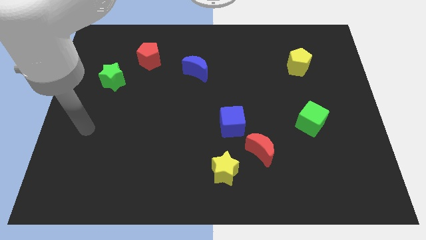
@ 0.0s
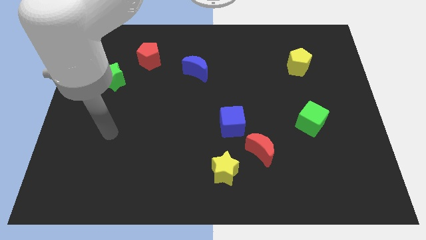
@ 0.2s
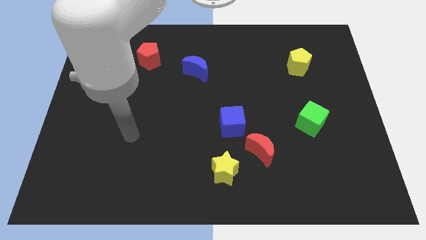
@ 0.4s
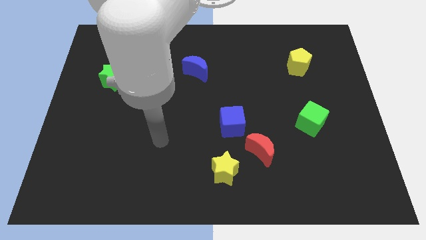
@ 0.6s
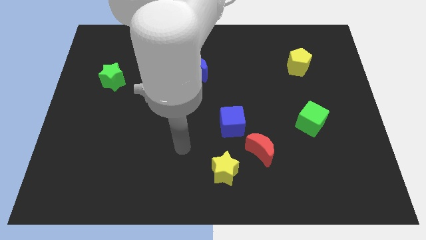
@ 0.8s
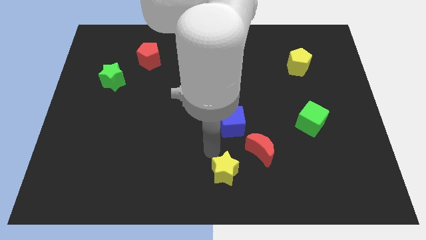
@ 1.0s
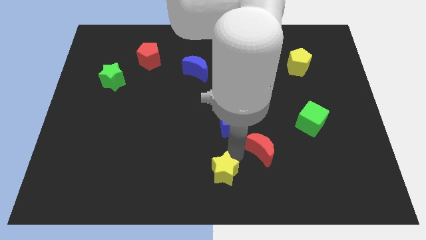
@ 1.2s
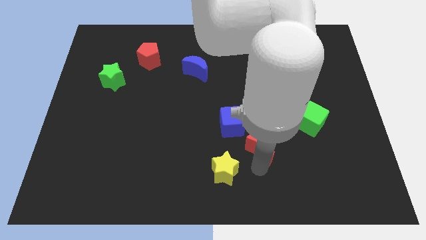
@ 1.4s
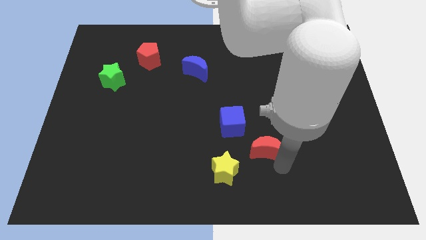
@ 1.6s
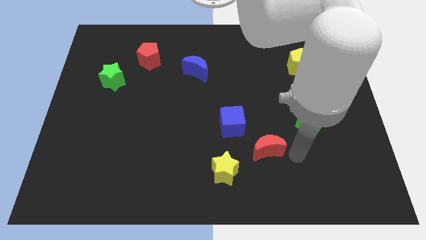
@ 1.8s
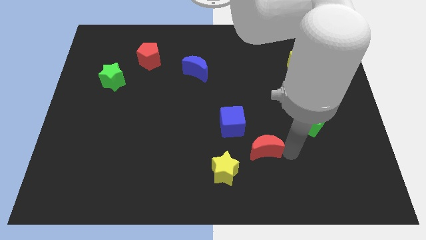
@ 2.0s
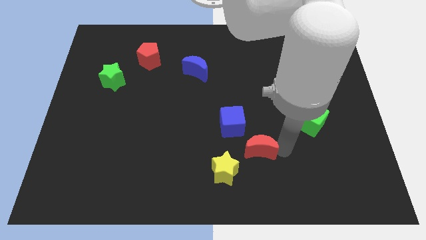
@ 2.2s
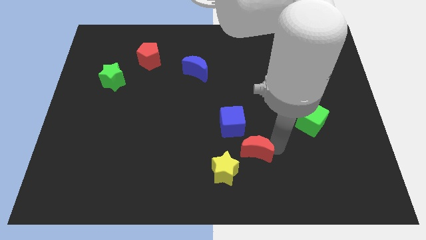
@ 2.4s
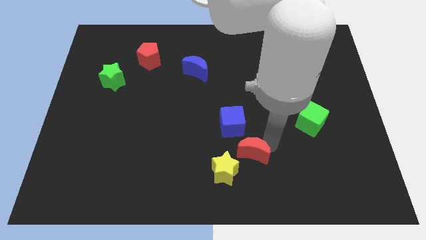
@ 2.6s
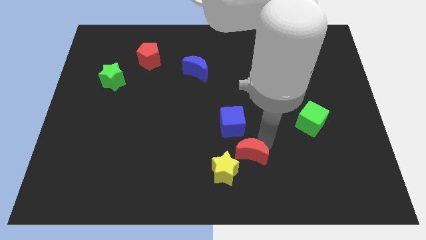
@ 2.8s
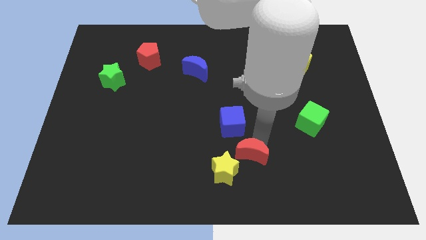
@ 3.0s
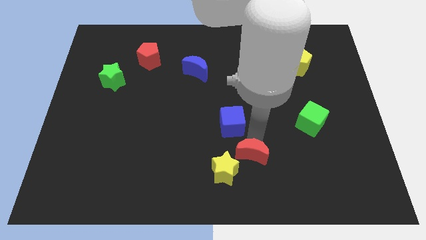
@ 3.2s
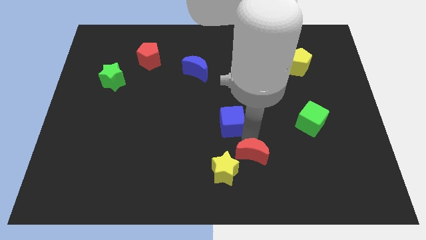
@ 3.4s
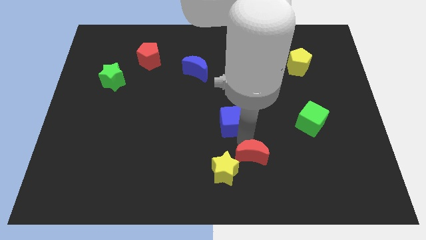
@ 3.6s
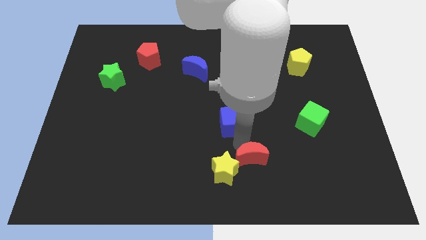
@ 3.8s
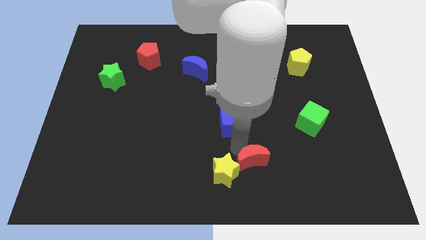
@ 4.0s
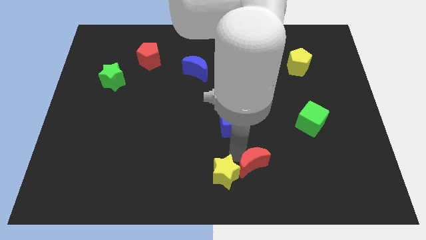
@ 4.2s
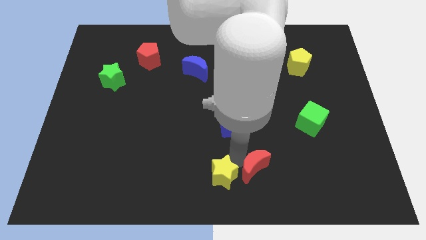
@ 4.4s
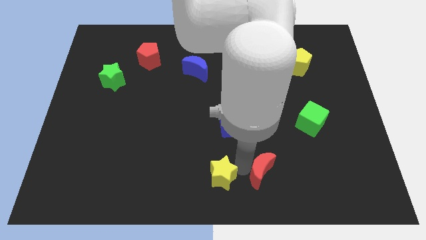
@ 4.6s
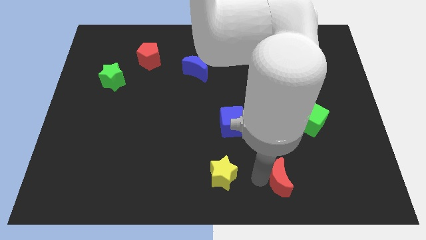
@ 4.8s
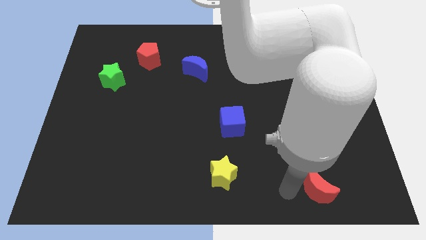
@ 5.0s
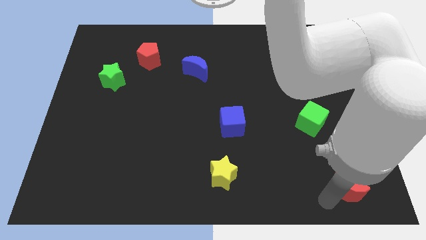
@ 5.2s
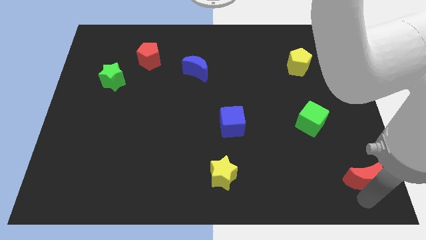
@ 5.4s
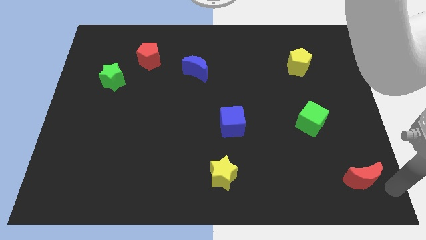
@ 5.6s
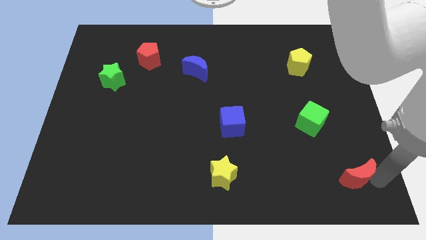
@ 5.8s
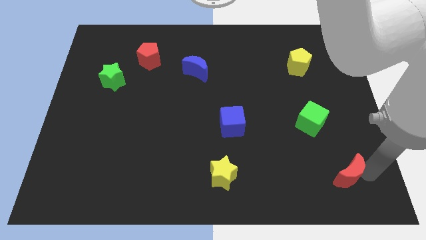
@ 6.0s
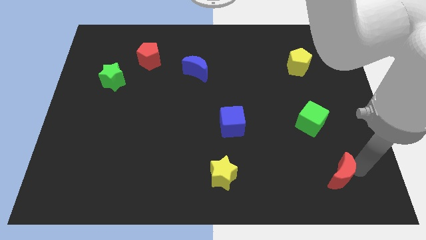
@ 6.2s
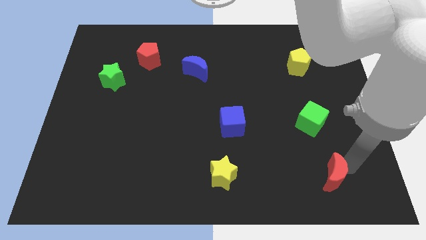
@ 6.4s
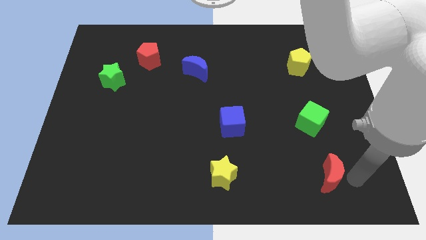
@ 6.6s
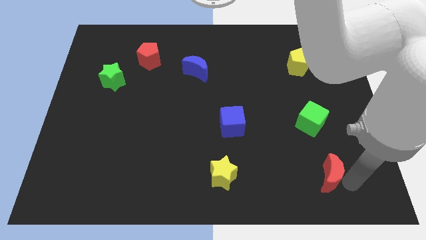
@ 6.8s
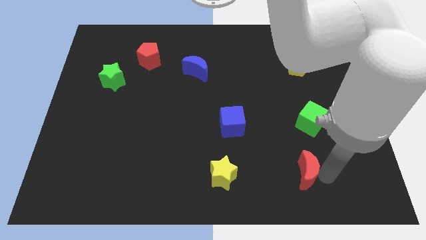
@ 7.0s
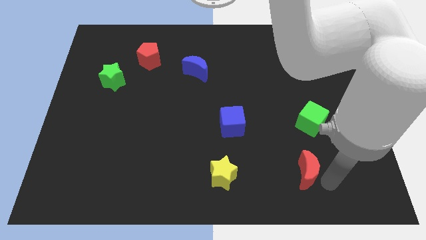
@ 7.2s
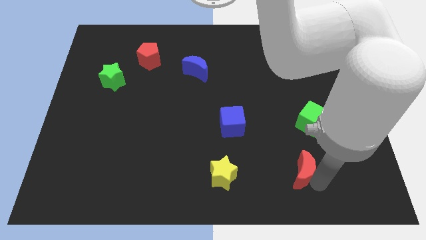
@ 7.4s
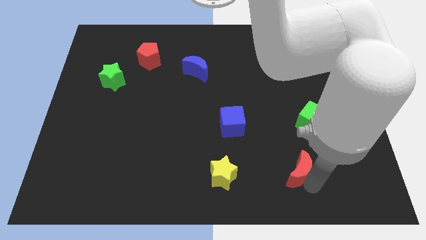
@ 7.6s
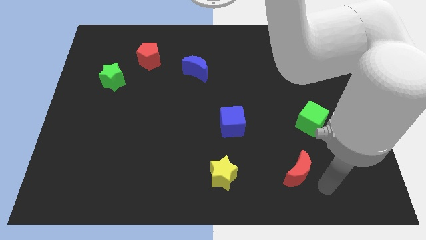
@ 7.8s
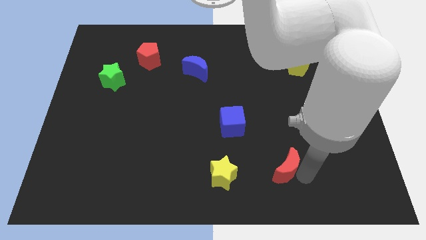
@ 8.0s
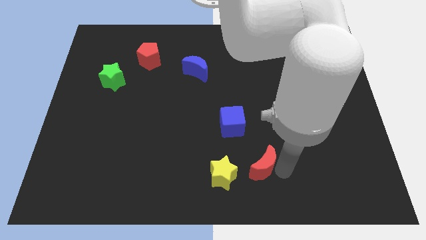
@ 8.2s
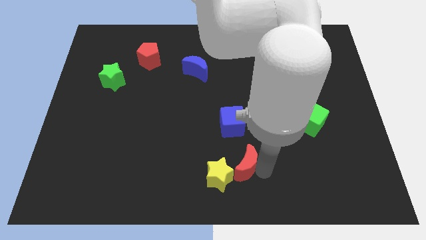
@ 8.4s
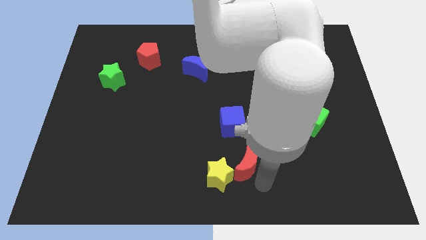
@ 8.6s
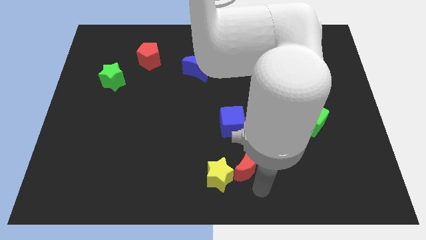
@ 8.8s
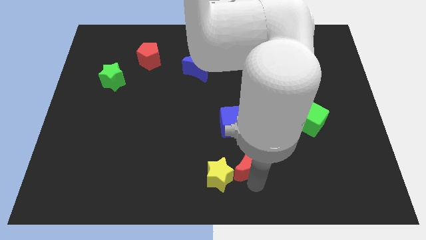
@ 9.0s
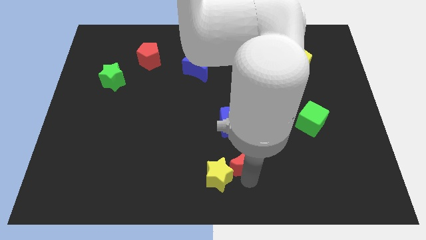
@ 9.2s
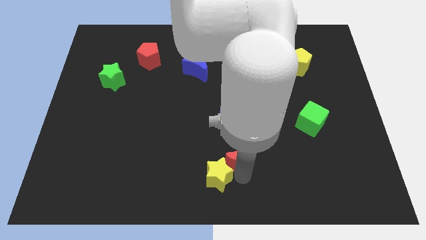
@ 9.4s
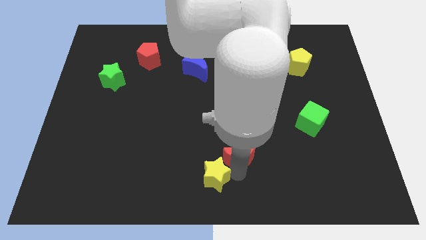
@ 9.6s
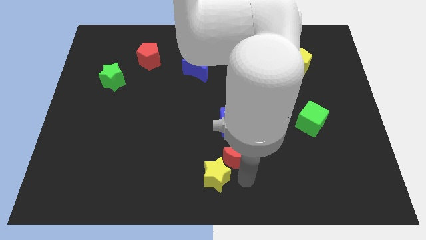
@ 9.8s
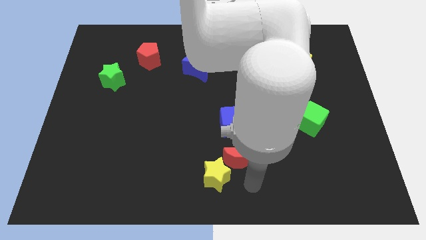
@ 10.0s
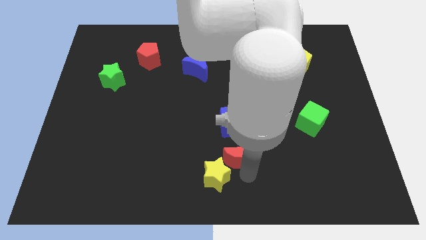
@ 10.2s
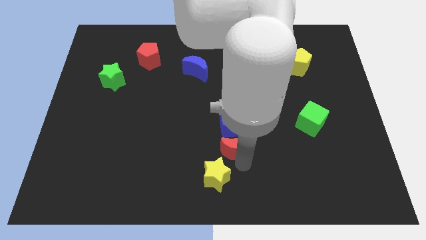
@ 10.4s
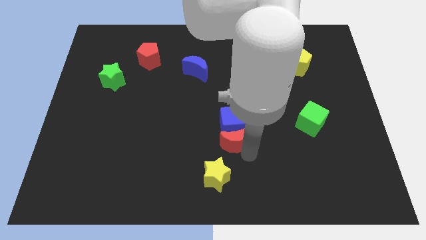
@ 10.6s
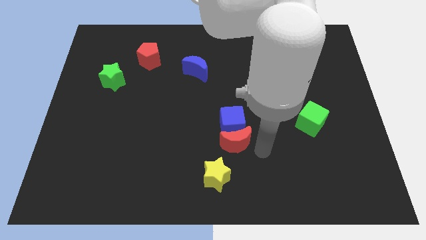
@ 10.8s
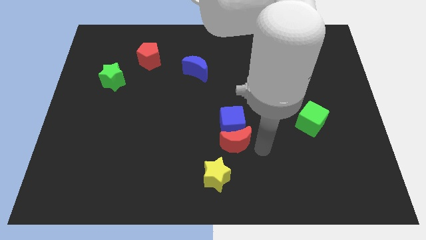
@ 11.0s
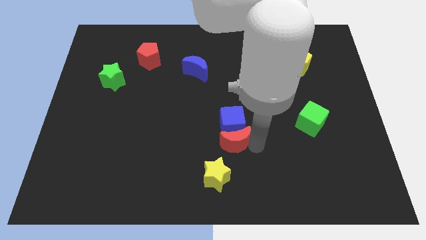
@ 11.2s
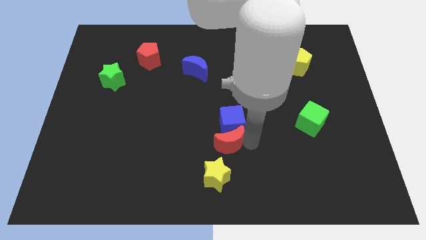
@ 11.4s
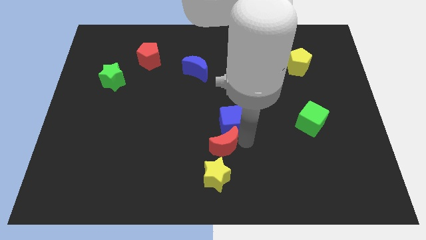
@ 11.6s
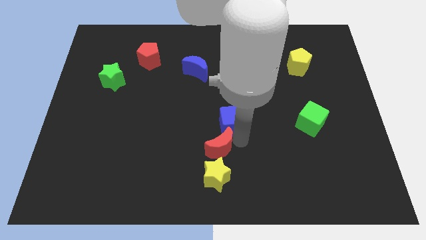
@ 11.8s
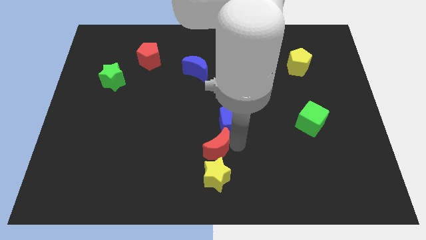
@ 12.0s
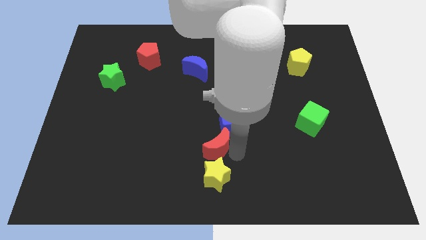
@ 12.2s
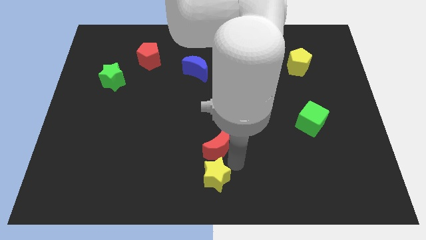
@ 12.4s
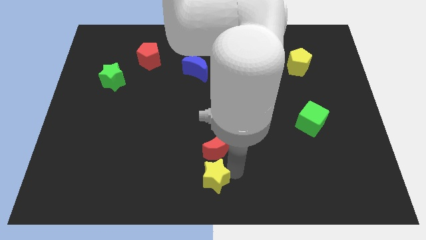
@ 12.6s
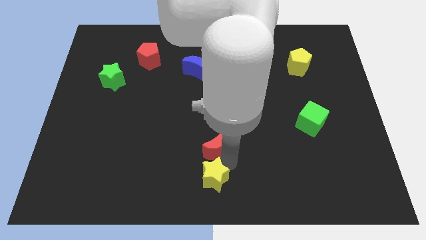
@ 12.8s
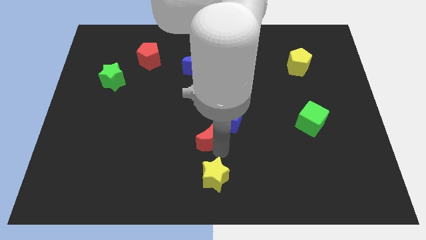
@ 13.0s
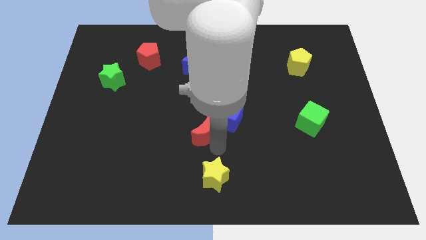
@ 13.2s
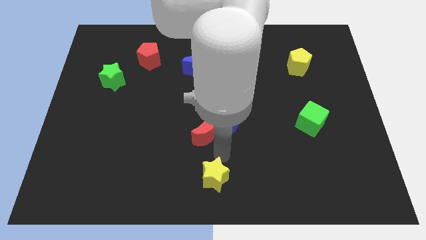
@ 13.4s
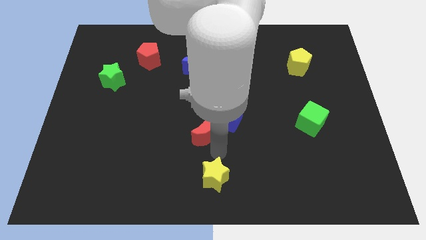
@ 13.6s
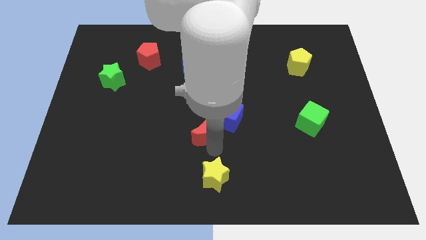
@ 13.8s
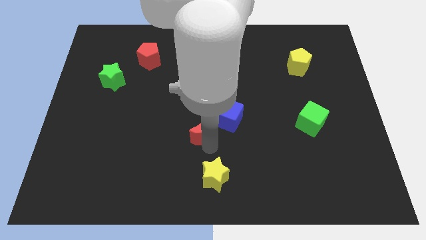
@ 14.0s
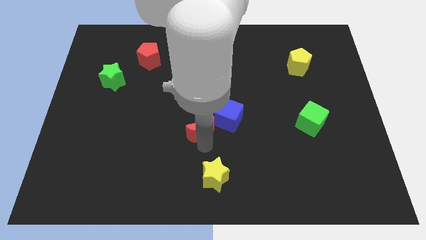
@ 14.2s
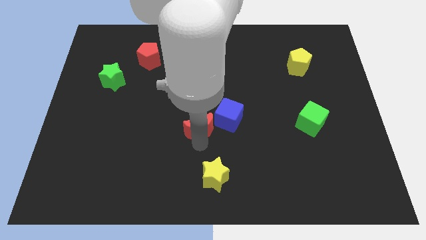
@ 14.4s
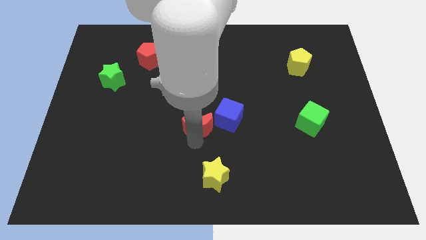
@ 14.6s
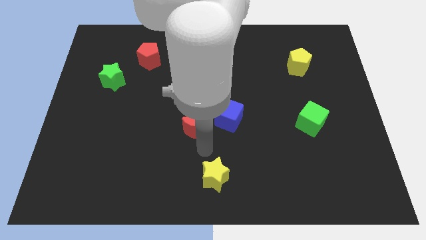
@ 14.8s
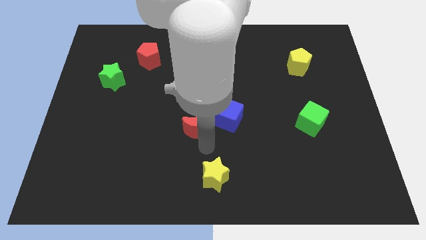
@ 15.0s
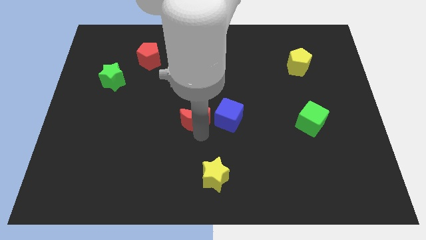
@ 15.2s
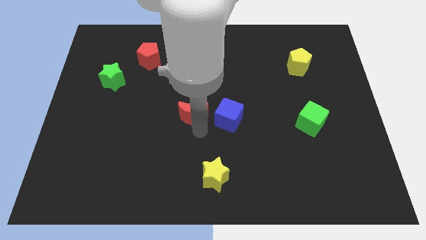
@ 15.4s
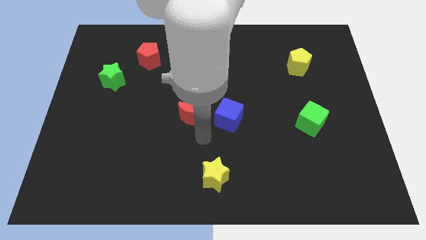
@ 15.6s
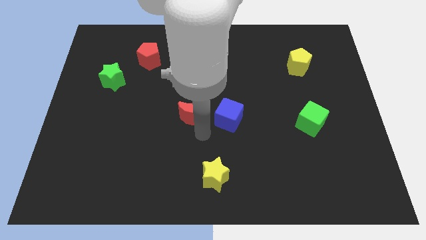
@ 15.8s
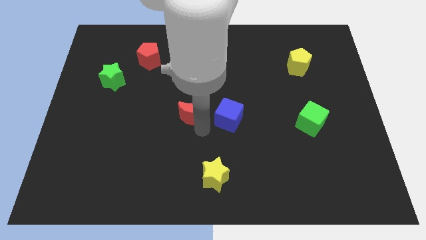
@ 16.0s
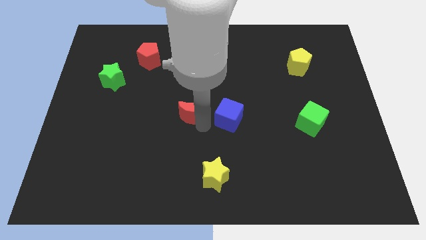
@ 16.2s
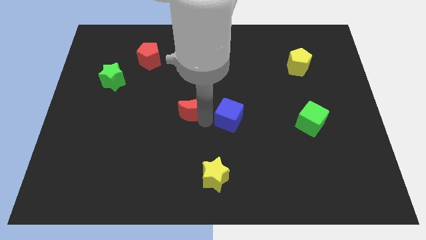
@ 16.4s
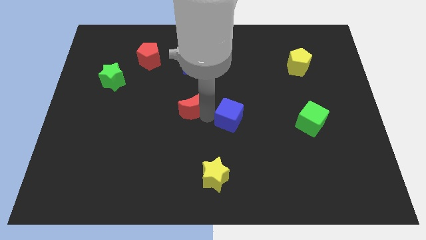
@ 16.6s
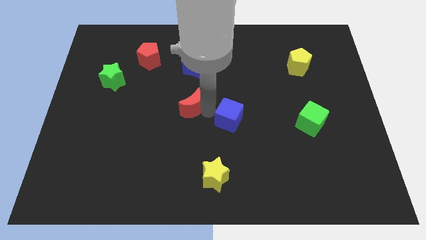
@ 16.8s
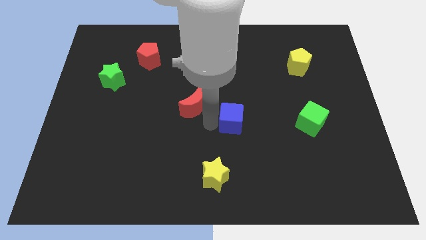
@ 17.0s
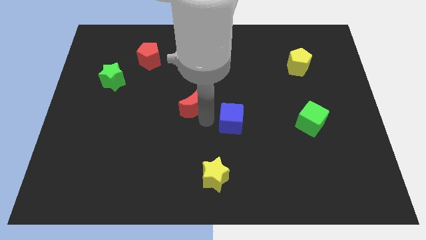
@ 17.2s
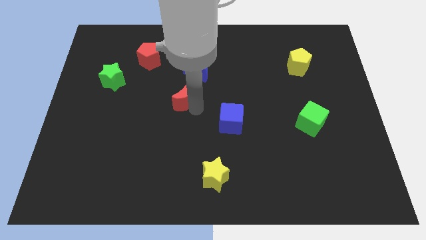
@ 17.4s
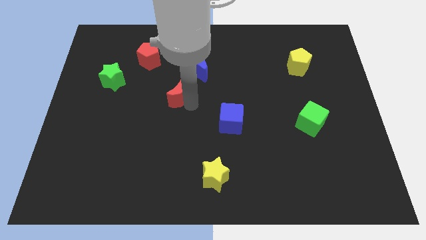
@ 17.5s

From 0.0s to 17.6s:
move the red moon to the bottom left of the blue moon
